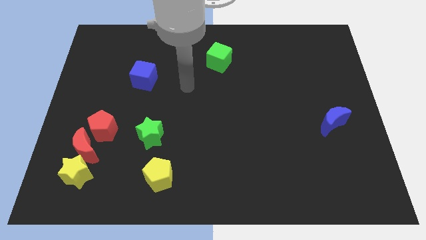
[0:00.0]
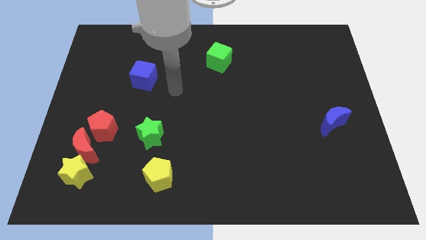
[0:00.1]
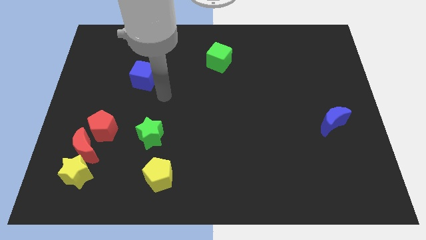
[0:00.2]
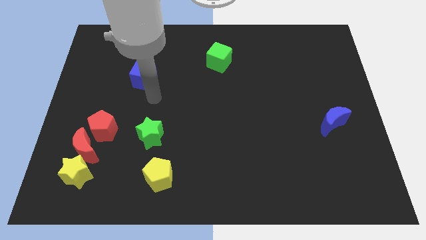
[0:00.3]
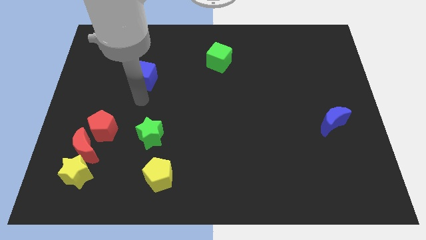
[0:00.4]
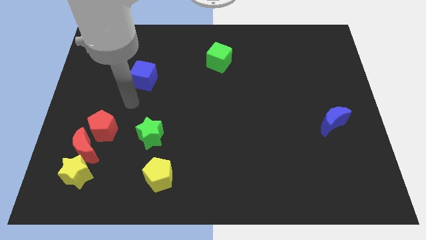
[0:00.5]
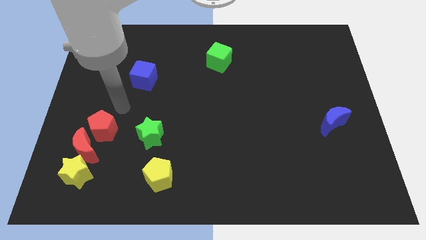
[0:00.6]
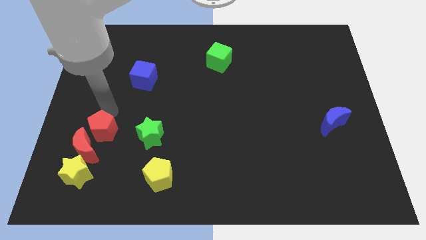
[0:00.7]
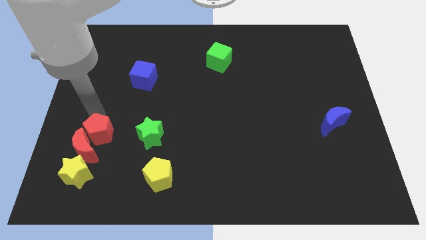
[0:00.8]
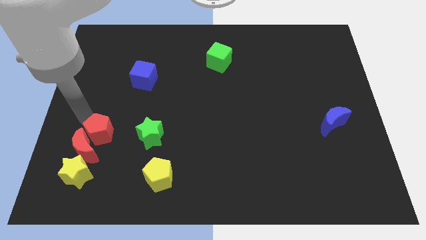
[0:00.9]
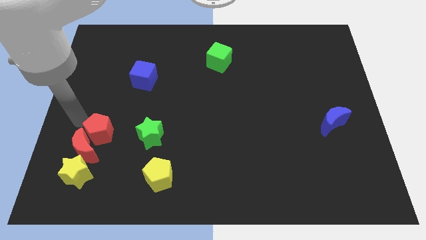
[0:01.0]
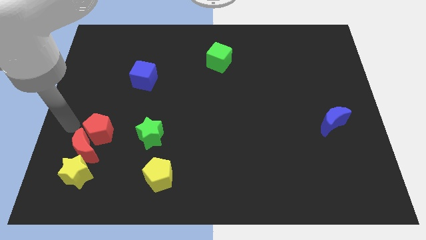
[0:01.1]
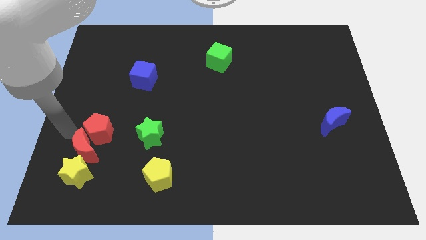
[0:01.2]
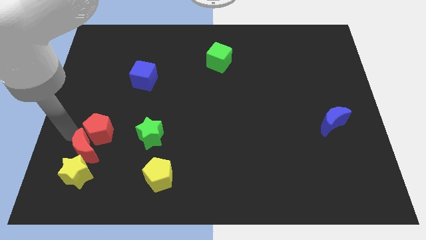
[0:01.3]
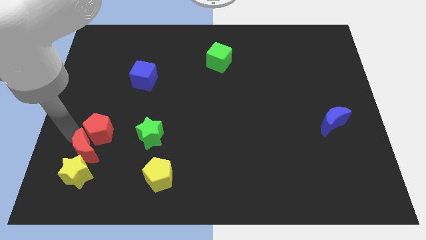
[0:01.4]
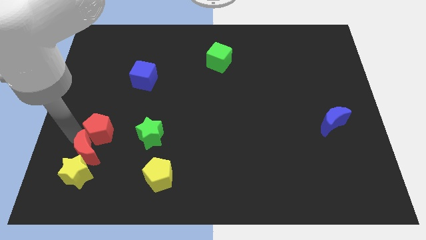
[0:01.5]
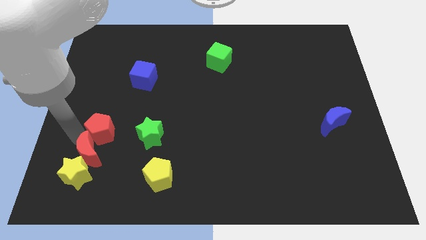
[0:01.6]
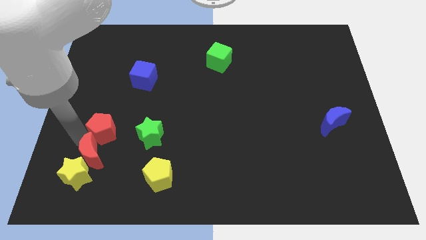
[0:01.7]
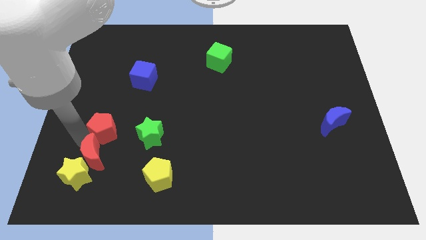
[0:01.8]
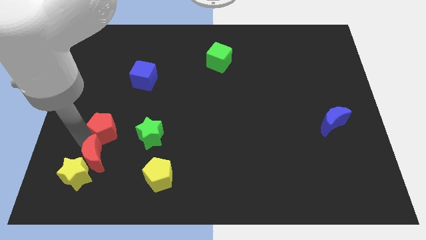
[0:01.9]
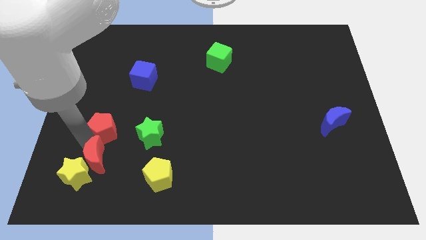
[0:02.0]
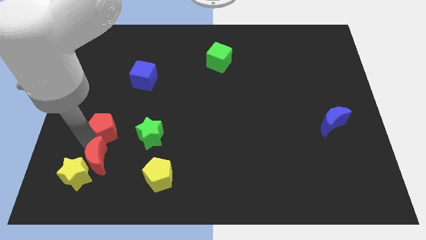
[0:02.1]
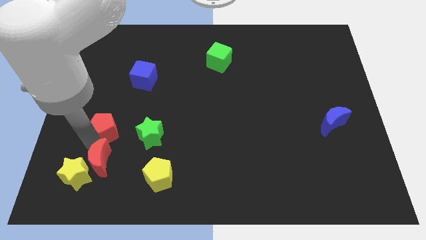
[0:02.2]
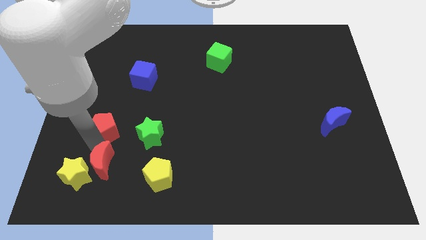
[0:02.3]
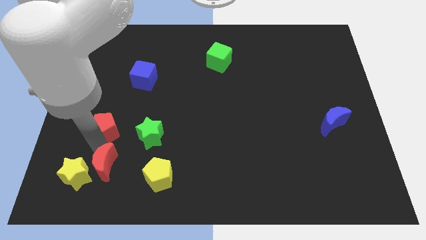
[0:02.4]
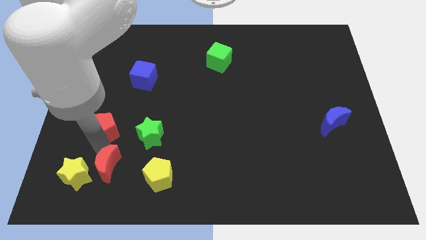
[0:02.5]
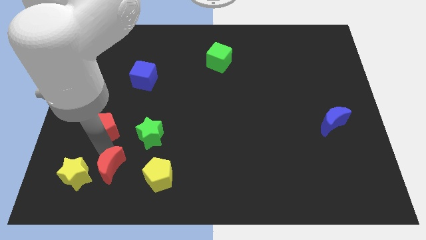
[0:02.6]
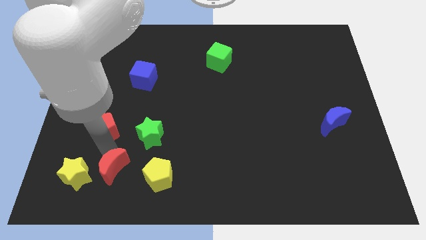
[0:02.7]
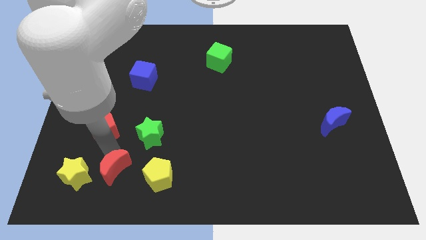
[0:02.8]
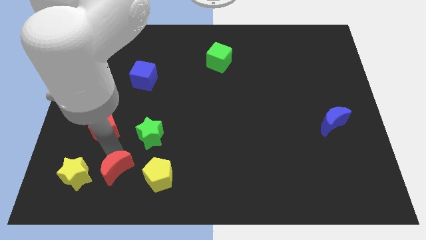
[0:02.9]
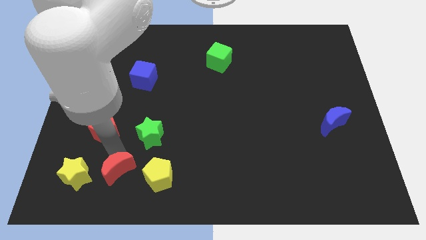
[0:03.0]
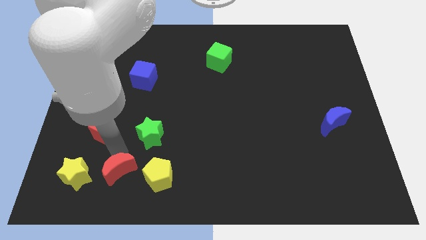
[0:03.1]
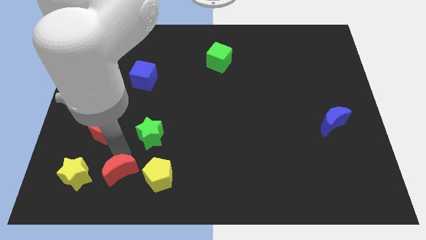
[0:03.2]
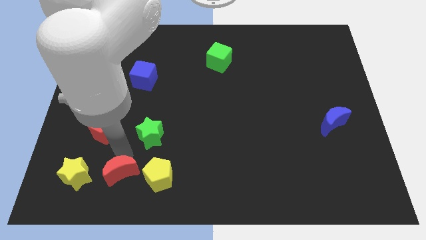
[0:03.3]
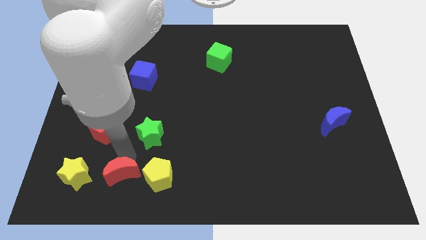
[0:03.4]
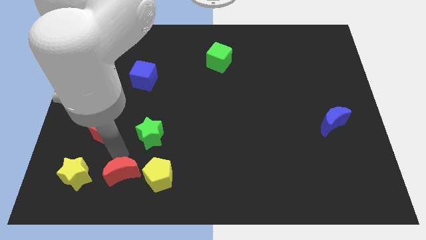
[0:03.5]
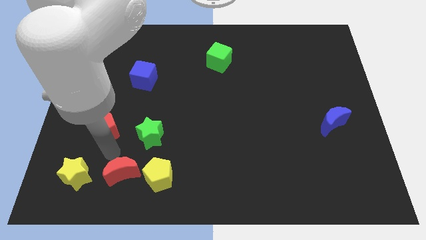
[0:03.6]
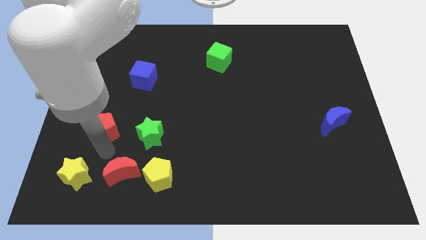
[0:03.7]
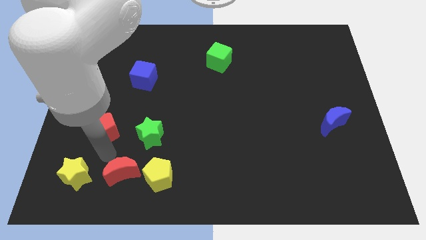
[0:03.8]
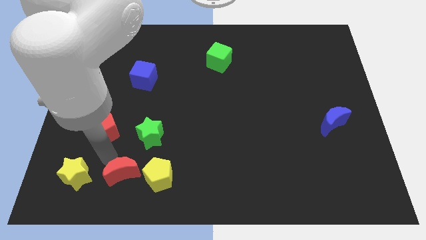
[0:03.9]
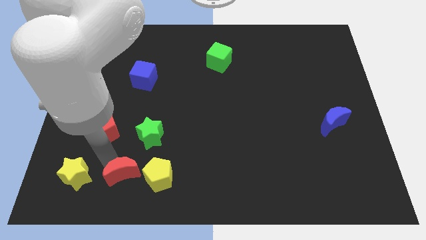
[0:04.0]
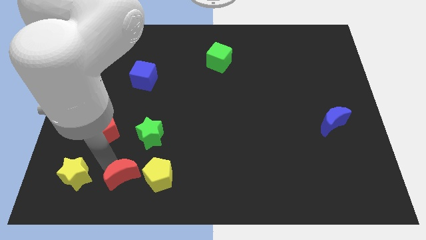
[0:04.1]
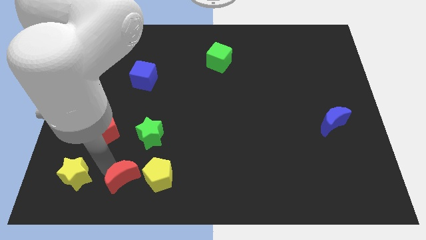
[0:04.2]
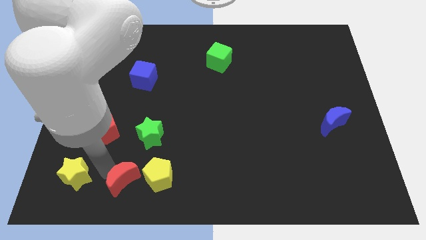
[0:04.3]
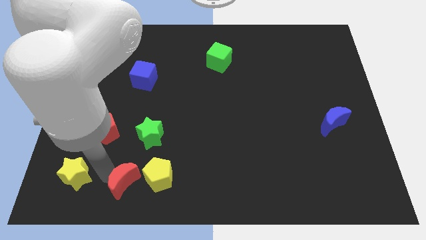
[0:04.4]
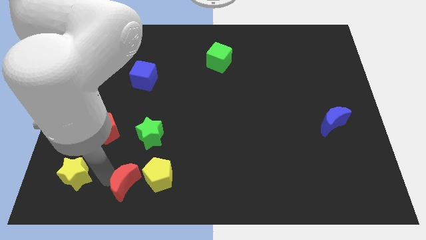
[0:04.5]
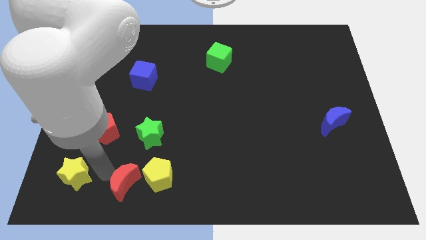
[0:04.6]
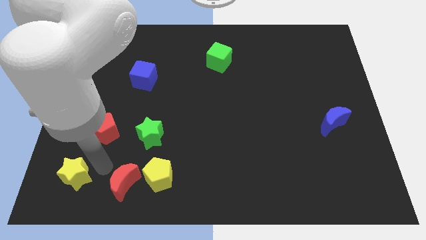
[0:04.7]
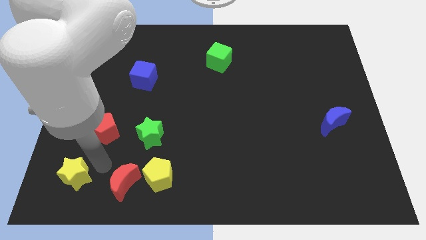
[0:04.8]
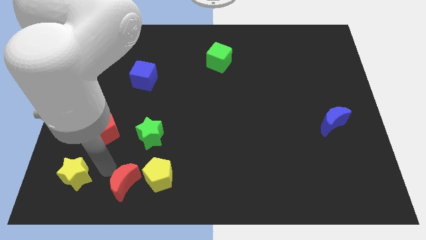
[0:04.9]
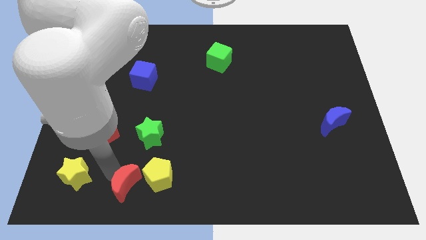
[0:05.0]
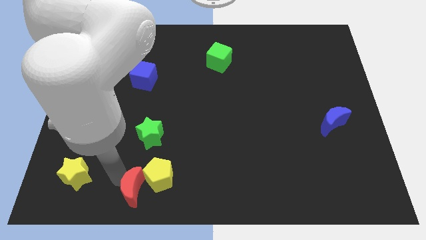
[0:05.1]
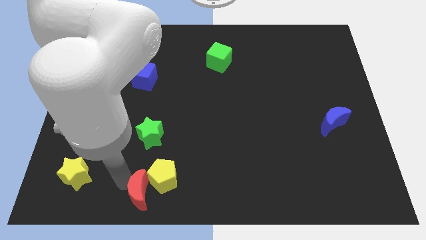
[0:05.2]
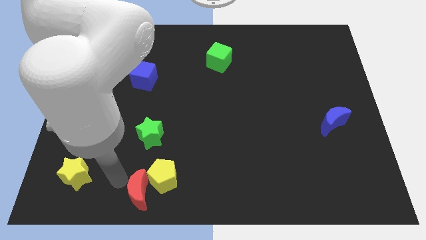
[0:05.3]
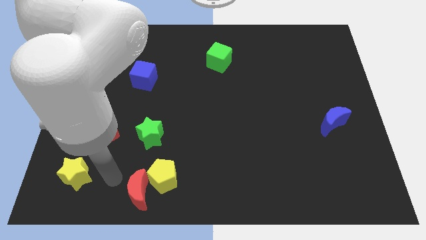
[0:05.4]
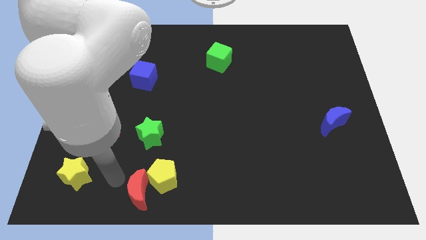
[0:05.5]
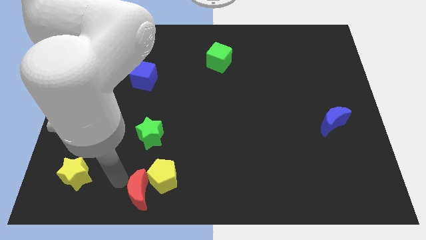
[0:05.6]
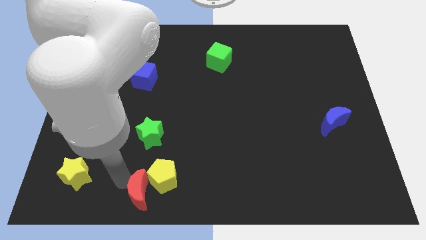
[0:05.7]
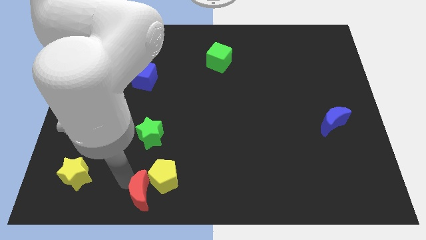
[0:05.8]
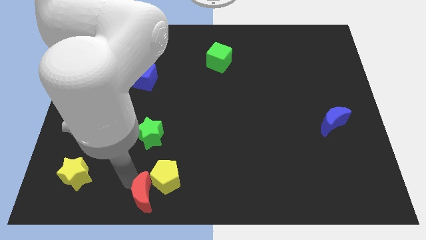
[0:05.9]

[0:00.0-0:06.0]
put the red moon to the bottom side

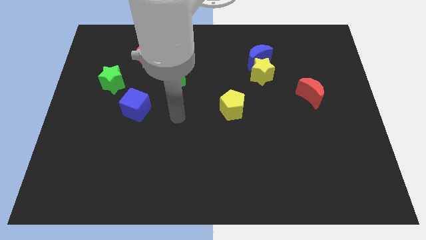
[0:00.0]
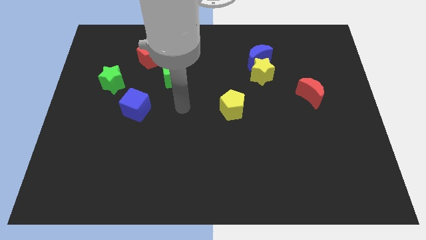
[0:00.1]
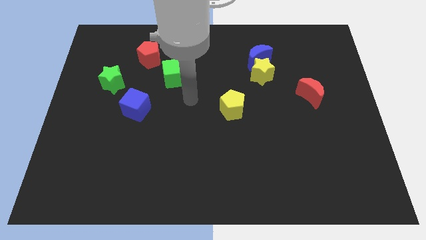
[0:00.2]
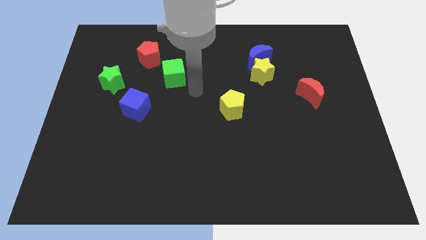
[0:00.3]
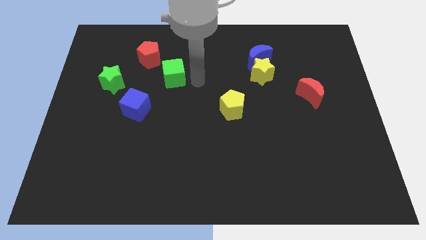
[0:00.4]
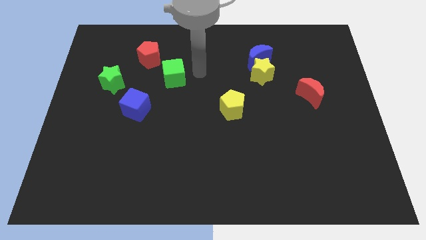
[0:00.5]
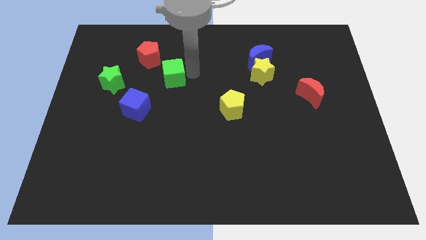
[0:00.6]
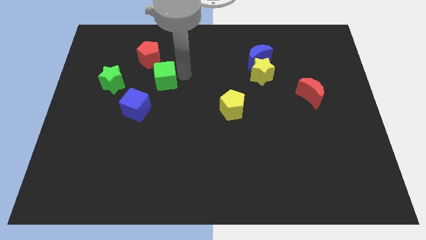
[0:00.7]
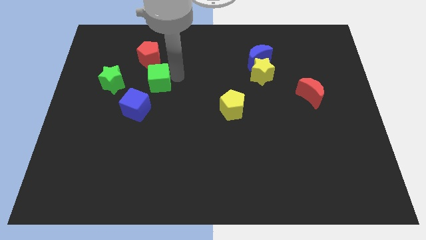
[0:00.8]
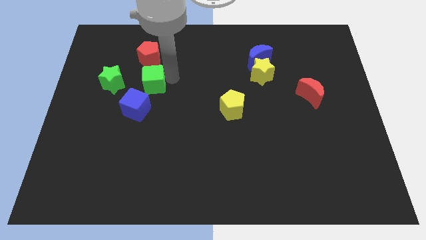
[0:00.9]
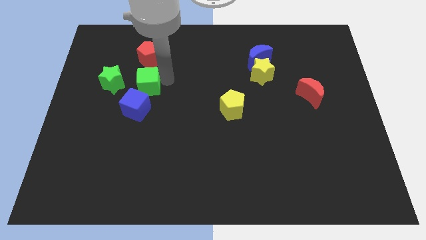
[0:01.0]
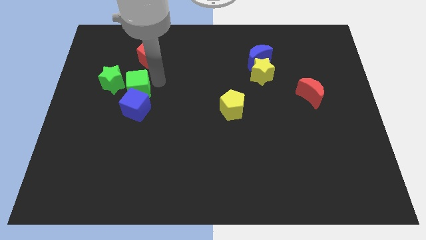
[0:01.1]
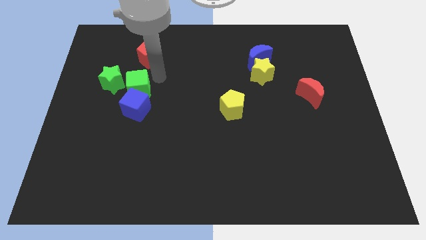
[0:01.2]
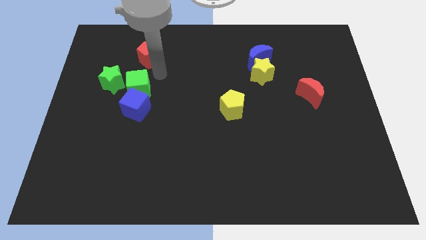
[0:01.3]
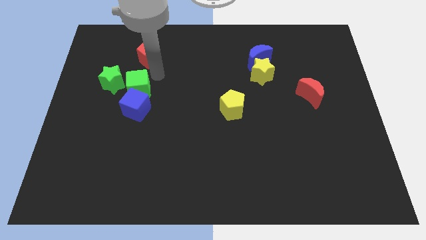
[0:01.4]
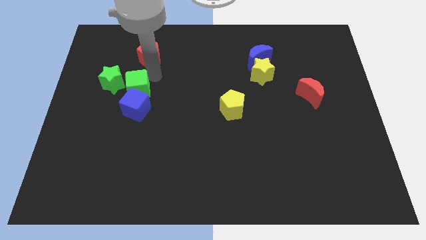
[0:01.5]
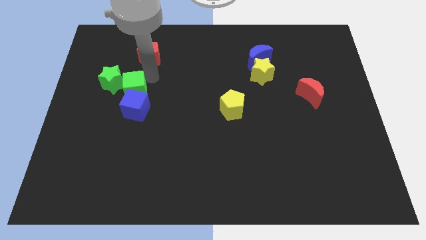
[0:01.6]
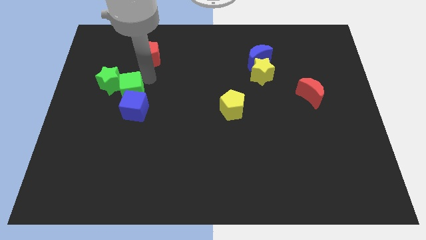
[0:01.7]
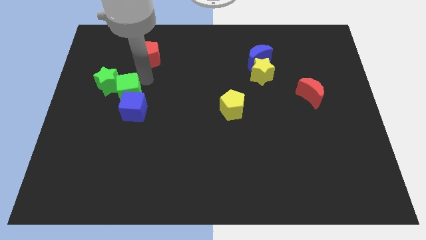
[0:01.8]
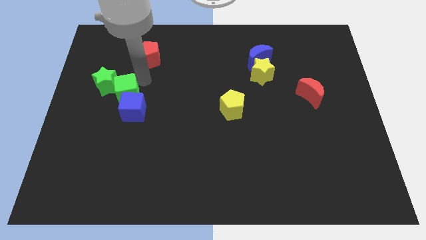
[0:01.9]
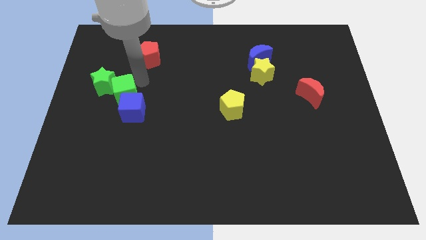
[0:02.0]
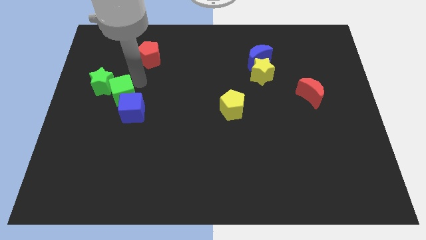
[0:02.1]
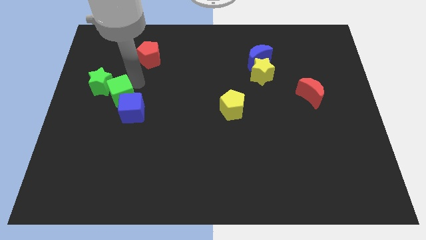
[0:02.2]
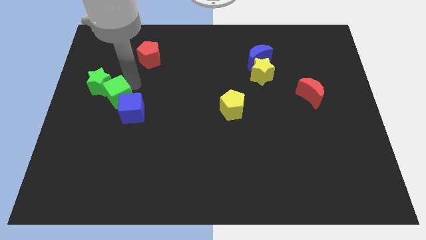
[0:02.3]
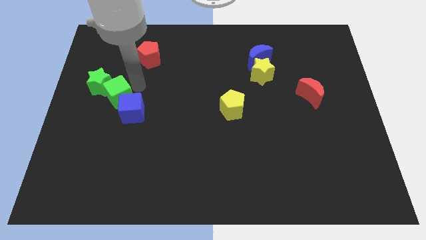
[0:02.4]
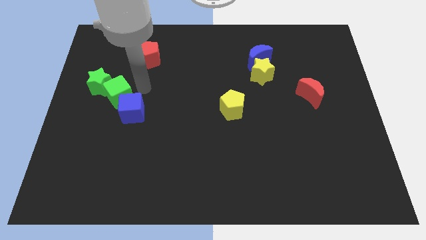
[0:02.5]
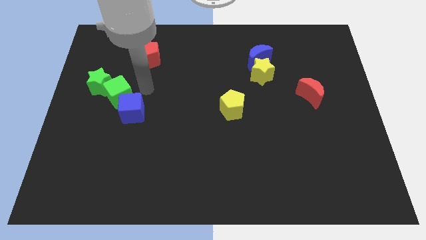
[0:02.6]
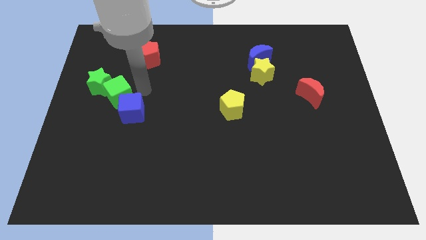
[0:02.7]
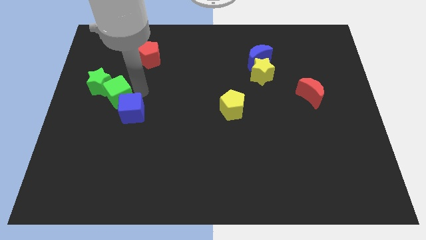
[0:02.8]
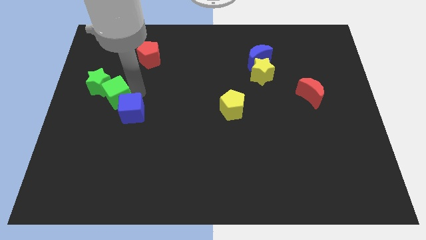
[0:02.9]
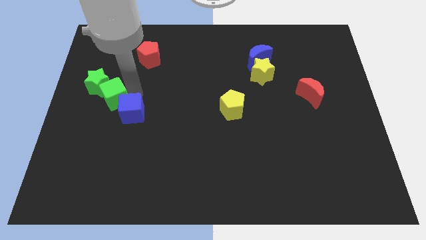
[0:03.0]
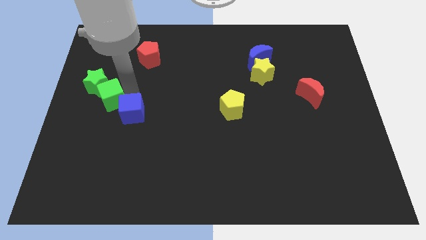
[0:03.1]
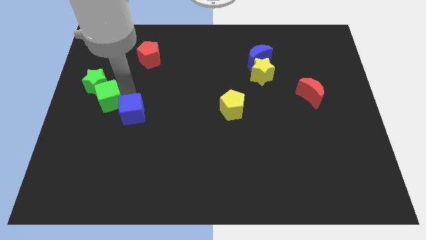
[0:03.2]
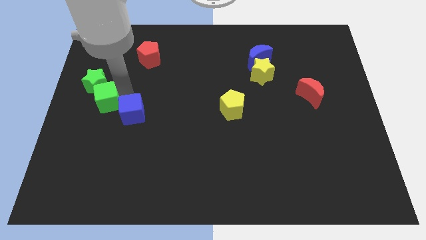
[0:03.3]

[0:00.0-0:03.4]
push the green cube to the center left
